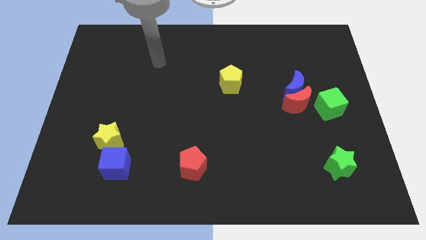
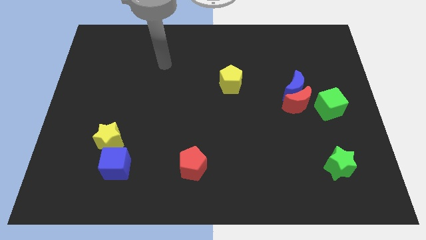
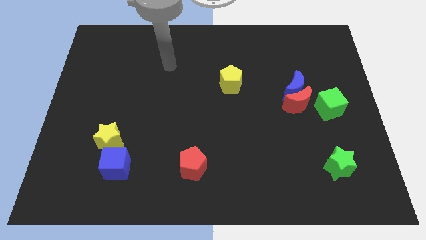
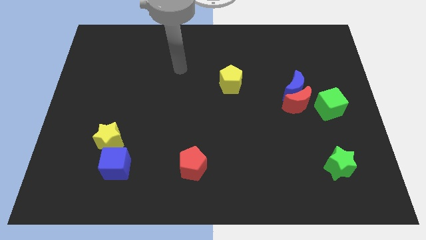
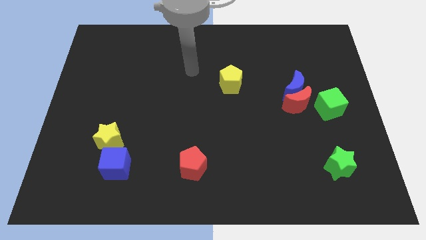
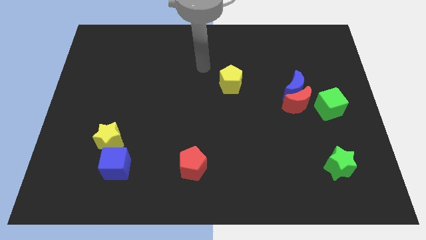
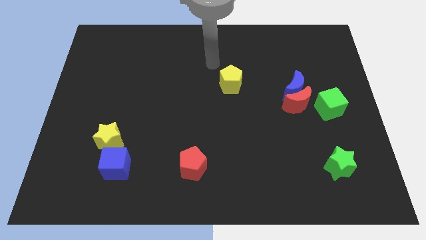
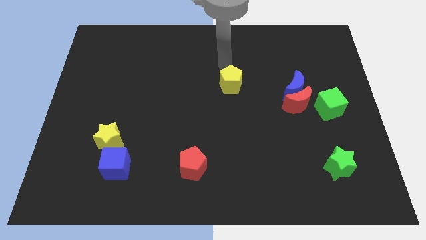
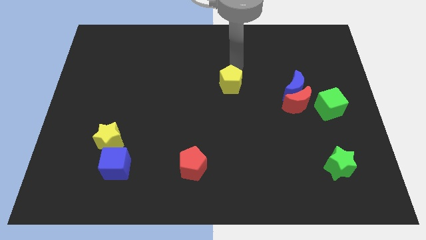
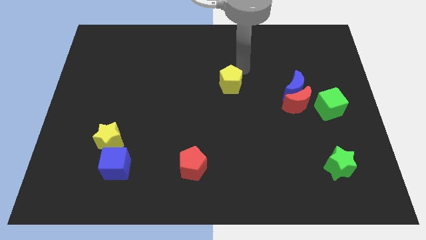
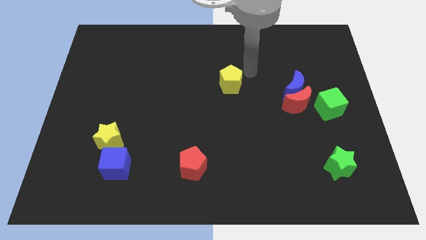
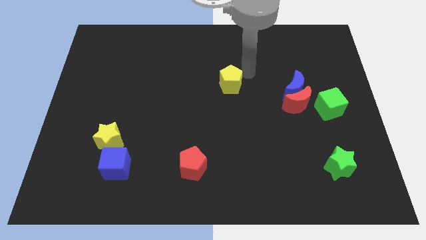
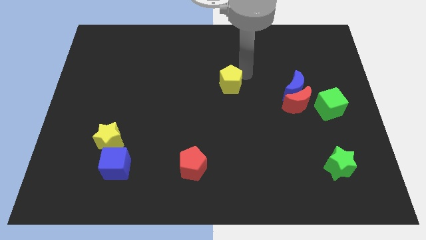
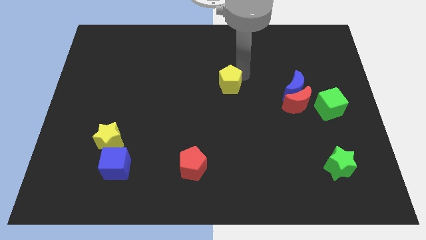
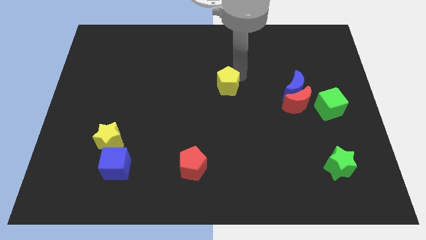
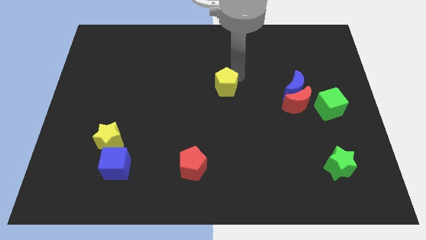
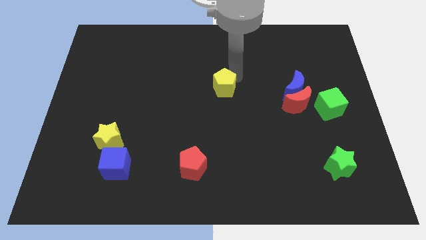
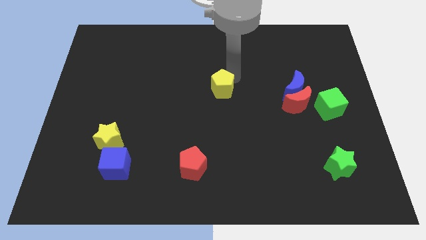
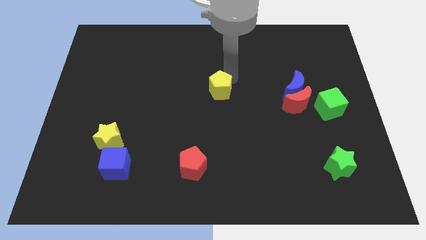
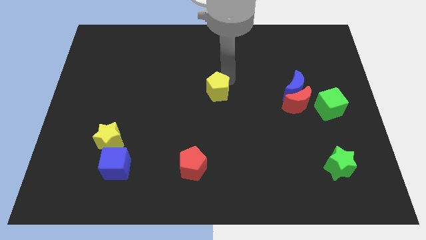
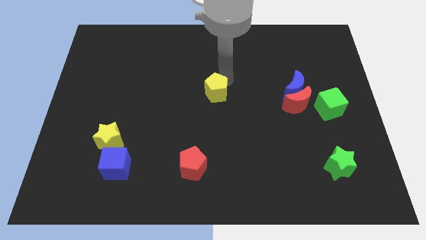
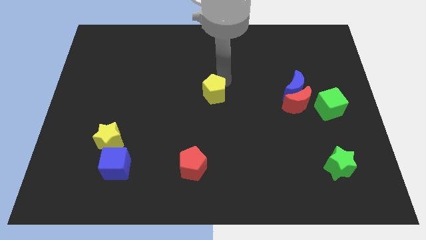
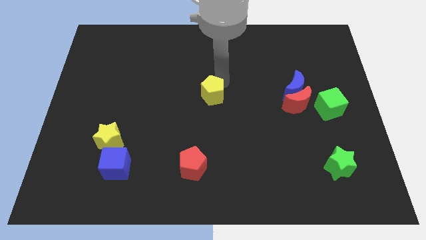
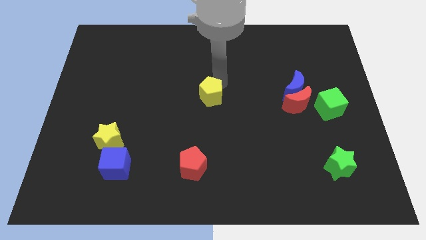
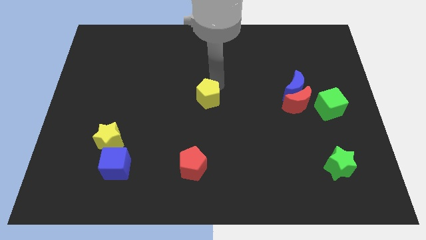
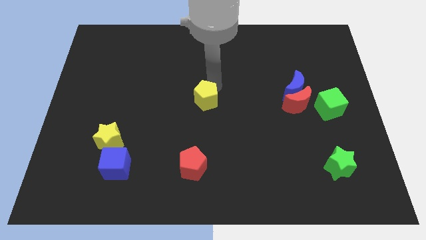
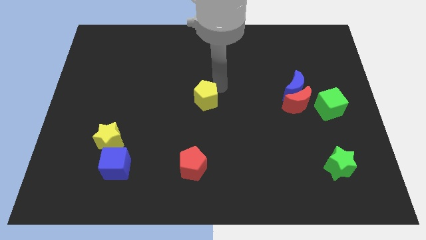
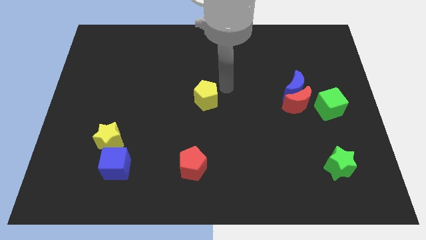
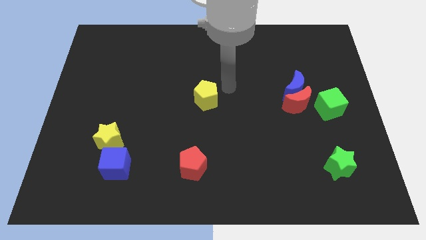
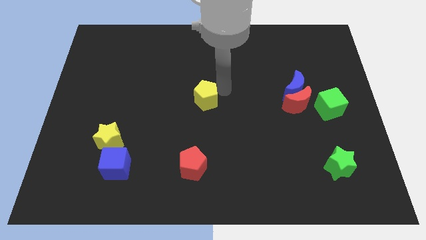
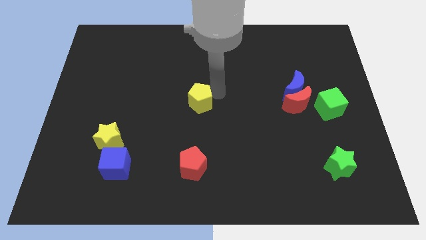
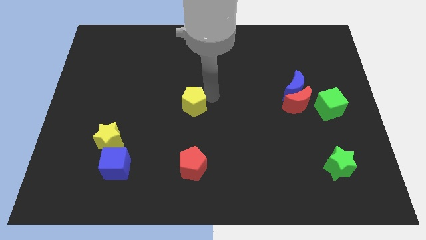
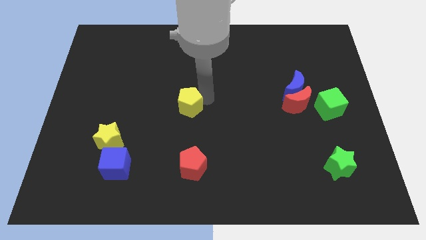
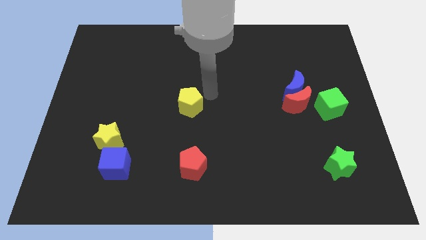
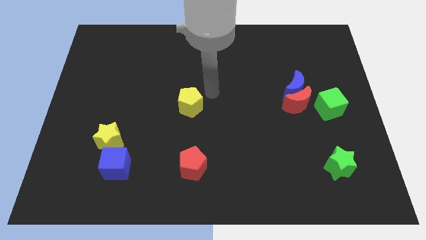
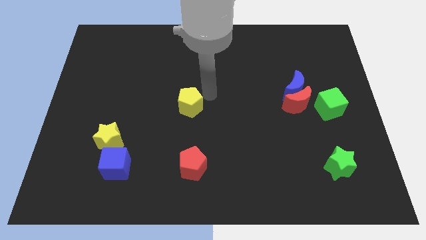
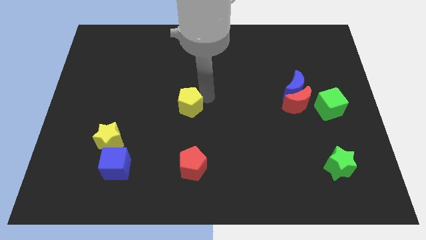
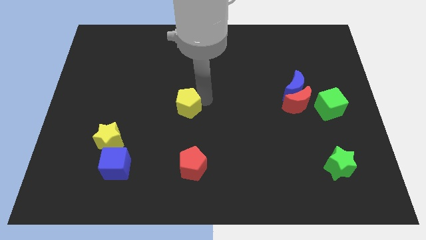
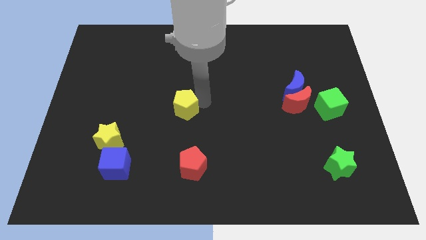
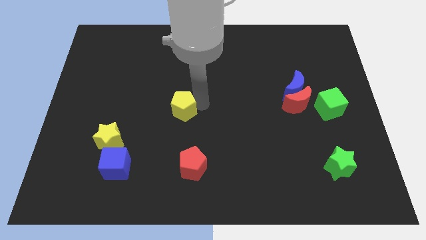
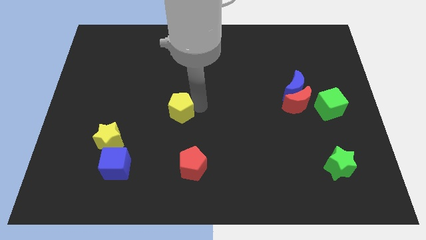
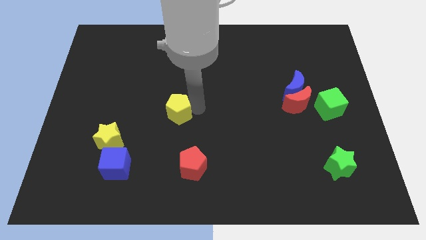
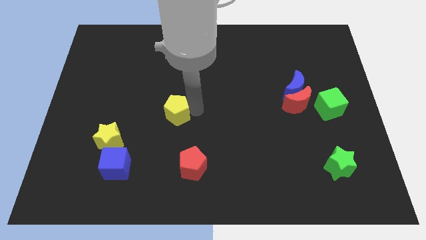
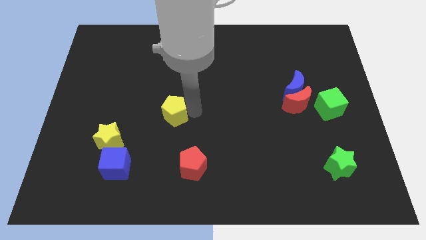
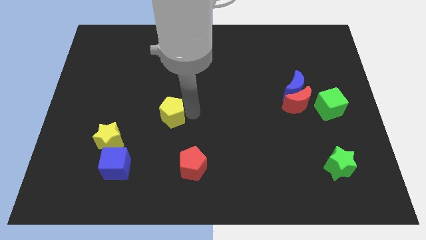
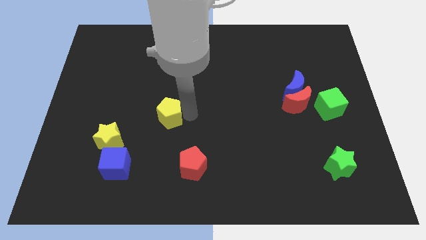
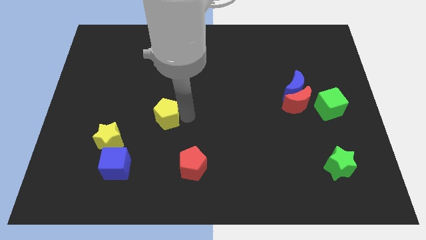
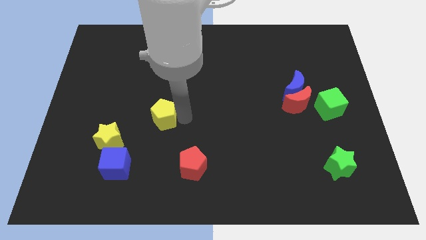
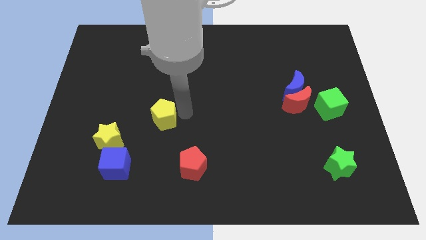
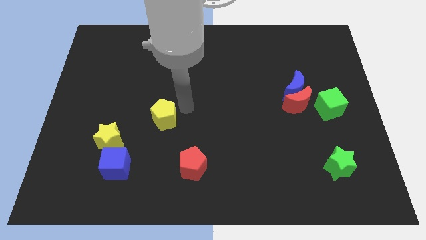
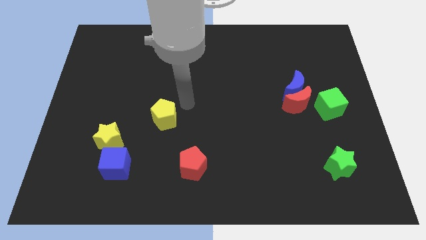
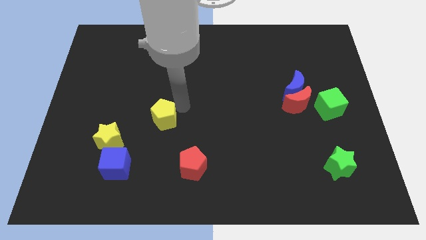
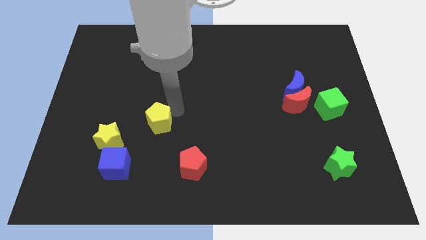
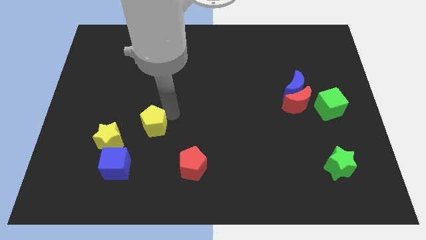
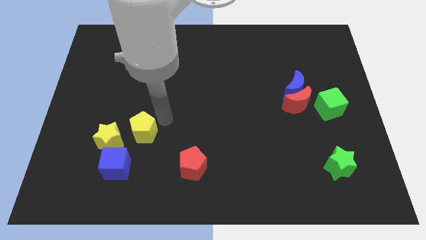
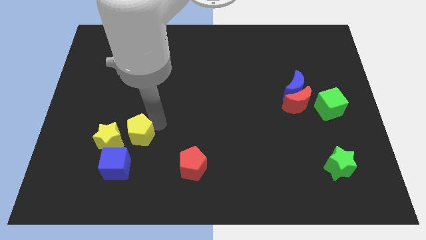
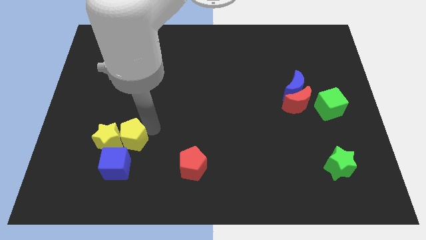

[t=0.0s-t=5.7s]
move the yellow pentagon to the yellow star

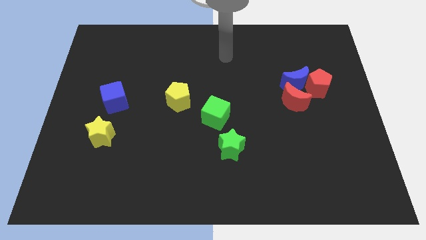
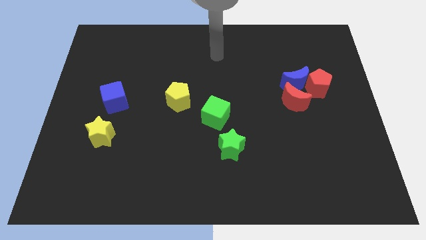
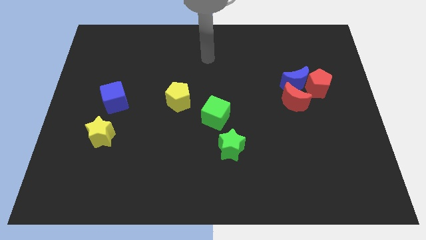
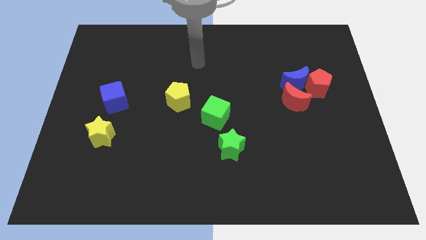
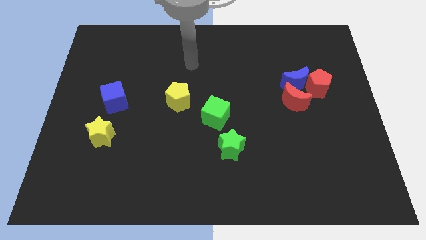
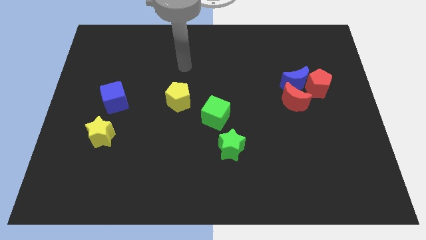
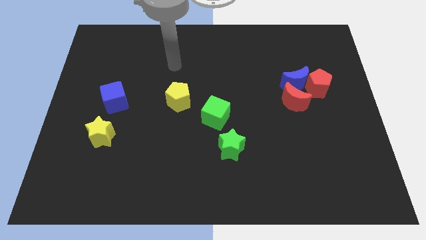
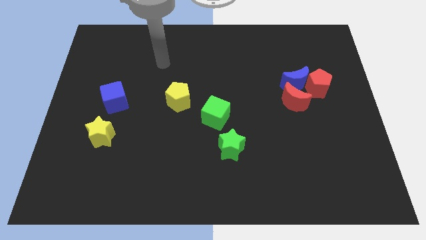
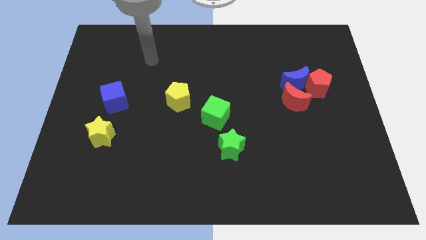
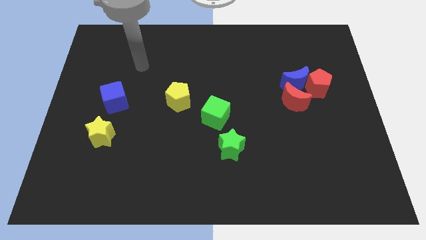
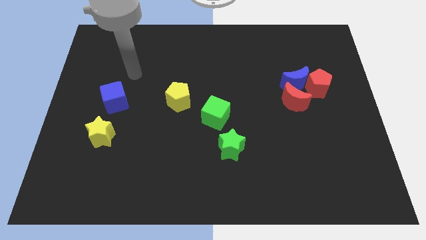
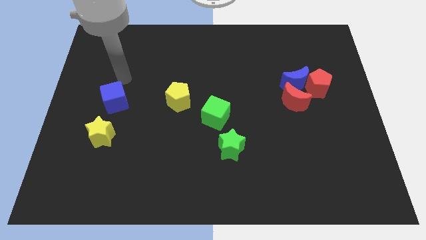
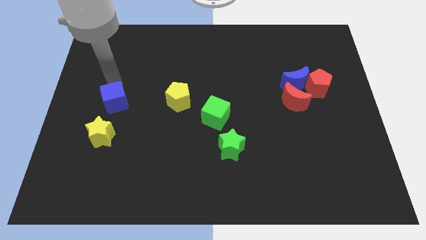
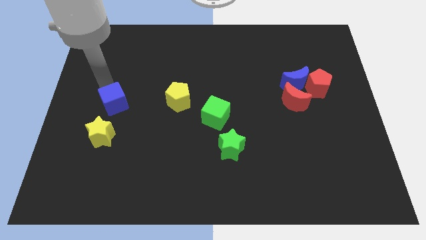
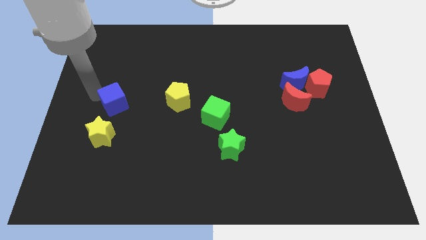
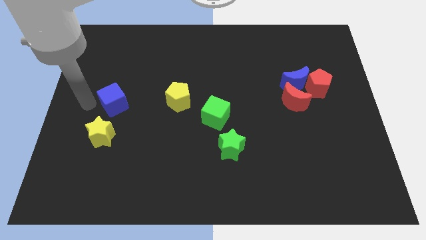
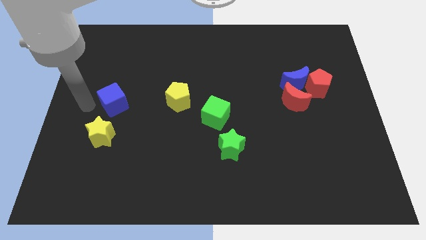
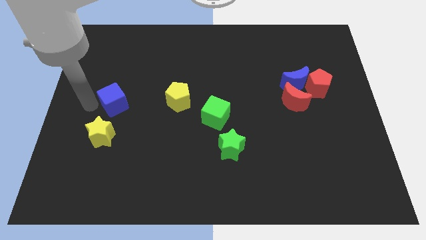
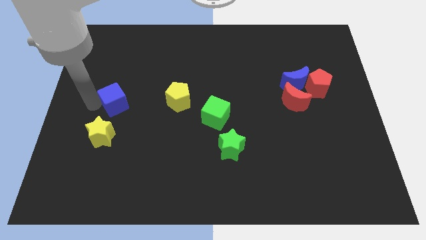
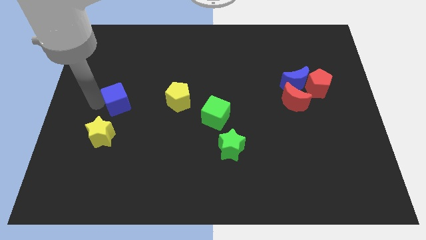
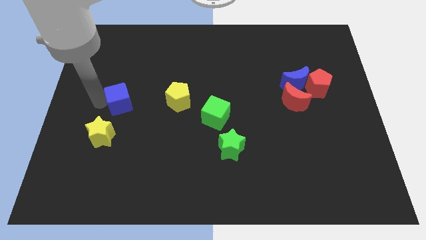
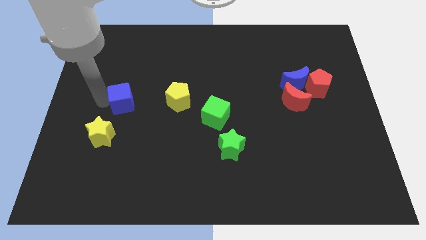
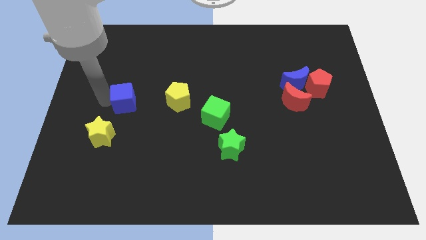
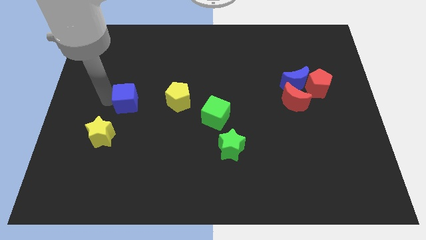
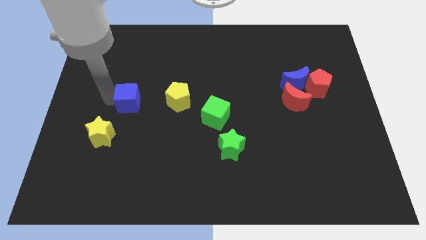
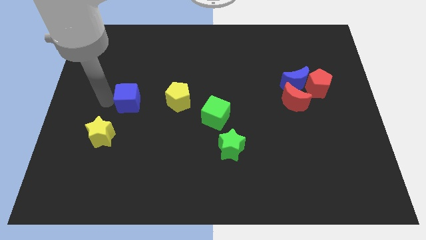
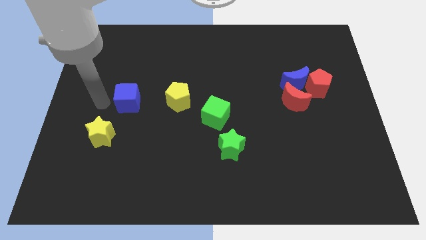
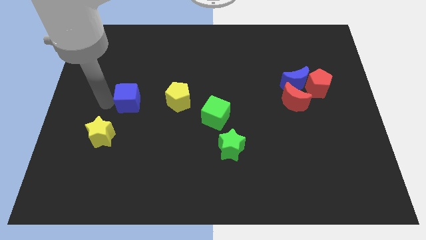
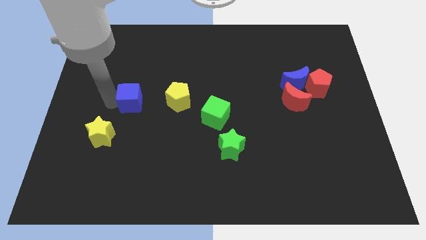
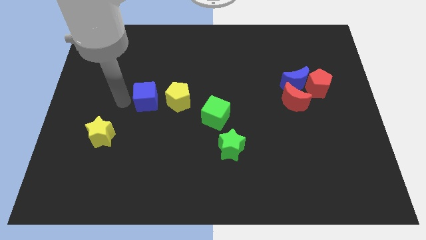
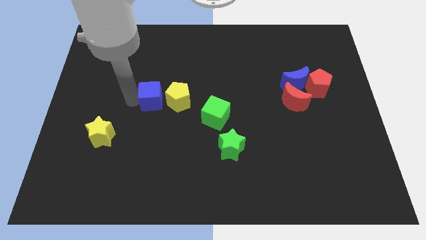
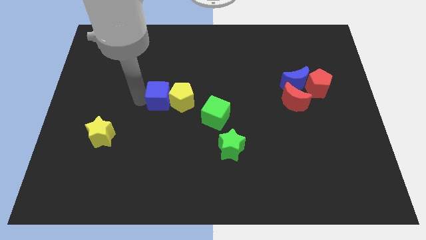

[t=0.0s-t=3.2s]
put the blue cube towards the yellow pentagon
